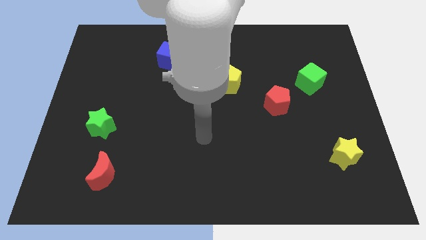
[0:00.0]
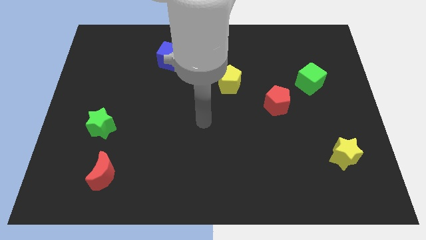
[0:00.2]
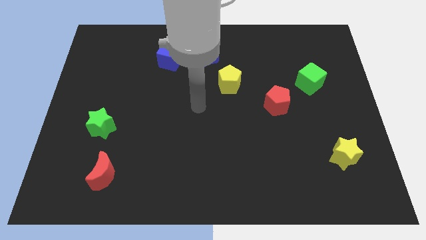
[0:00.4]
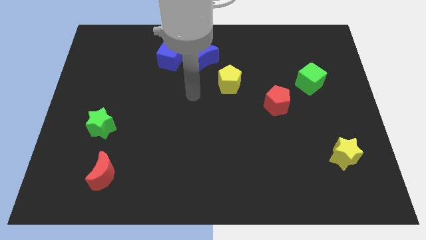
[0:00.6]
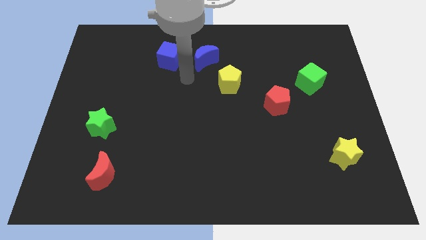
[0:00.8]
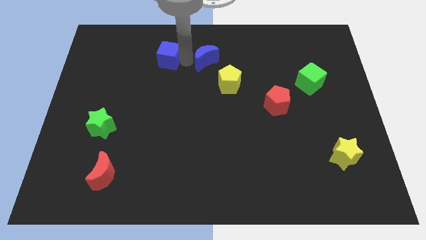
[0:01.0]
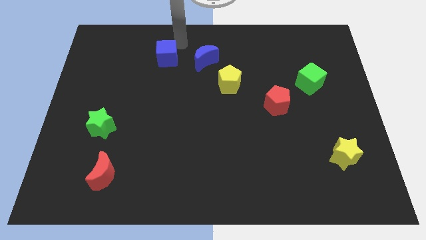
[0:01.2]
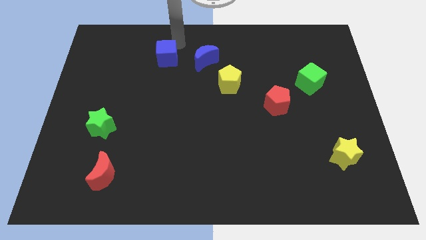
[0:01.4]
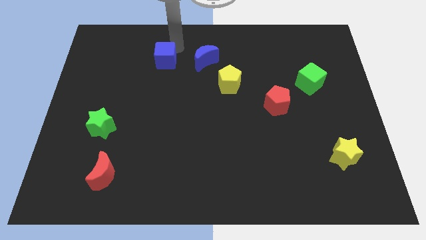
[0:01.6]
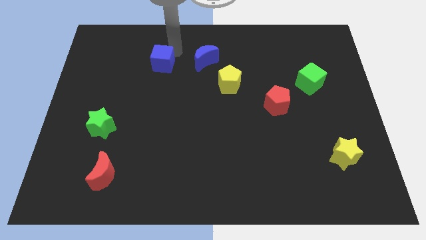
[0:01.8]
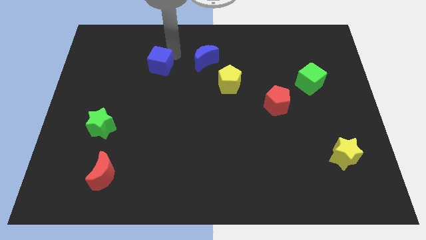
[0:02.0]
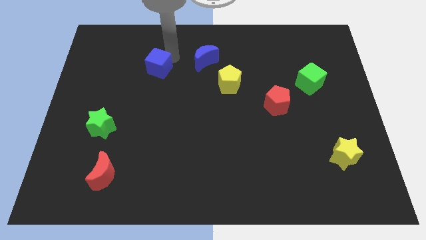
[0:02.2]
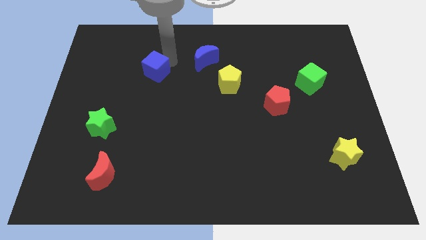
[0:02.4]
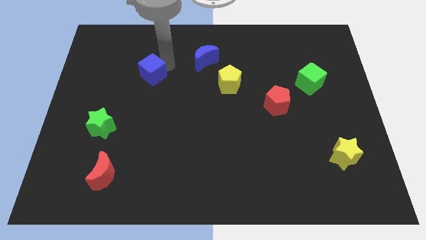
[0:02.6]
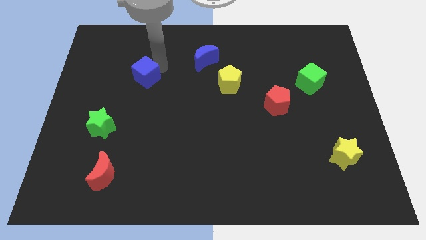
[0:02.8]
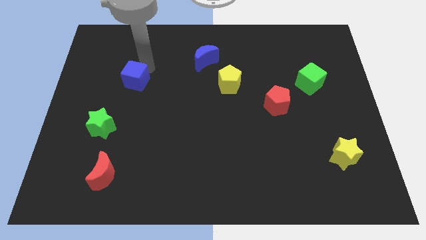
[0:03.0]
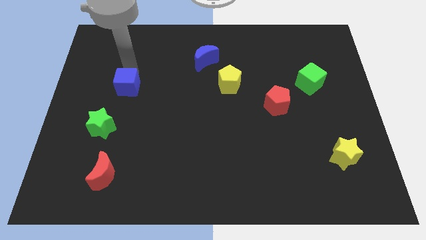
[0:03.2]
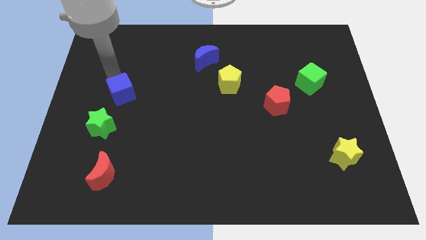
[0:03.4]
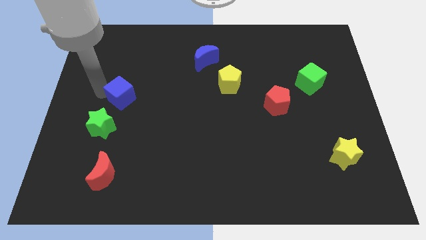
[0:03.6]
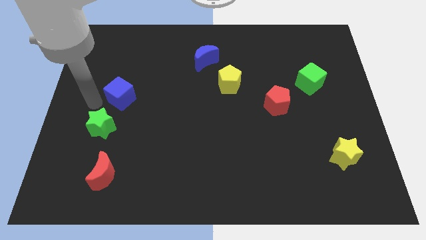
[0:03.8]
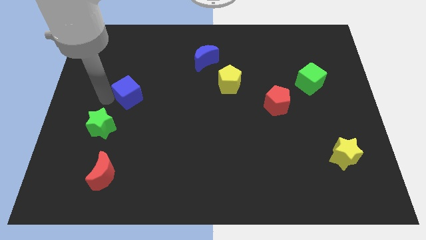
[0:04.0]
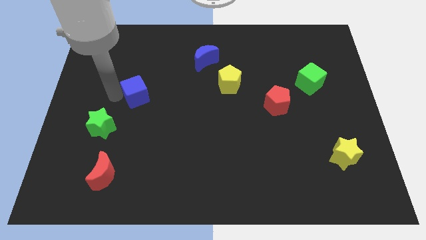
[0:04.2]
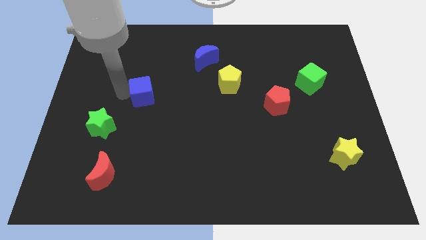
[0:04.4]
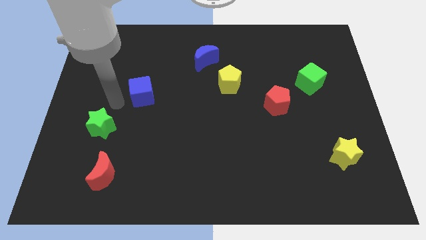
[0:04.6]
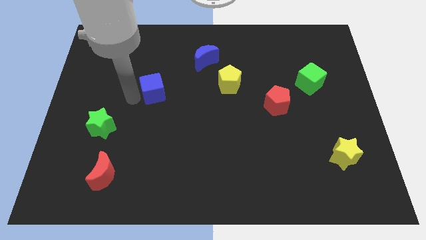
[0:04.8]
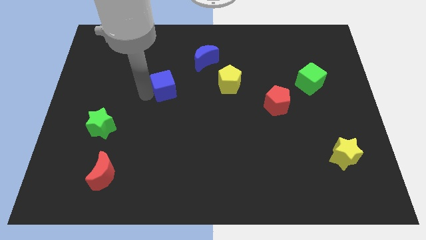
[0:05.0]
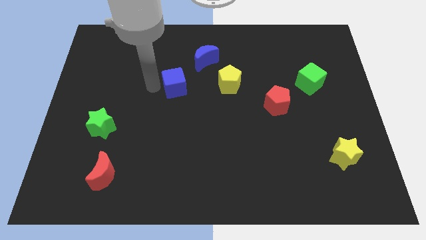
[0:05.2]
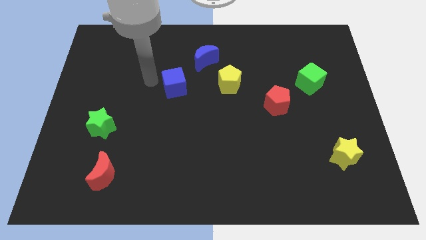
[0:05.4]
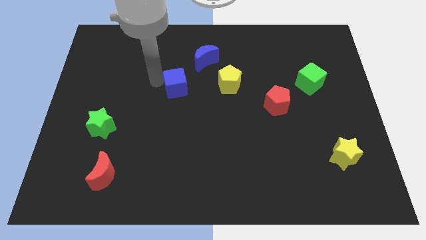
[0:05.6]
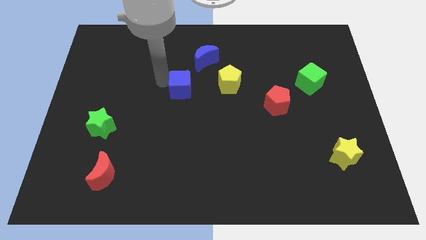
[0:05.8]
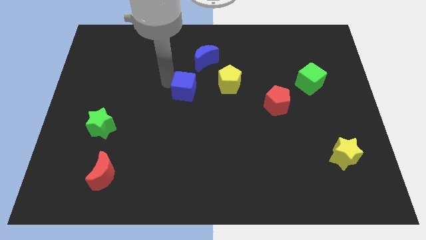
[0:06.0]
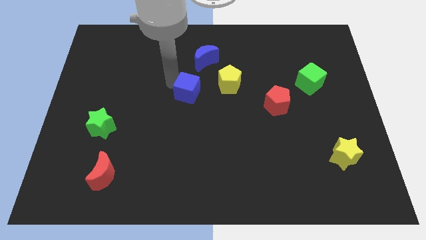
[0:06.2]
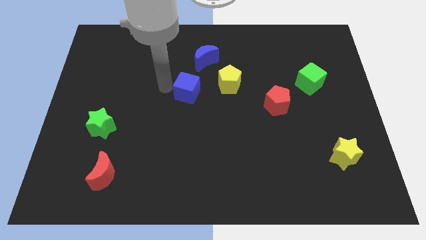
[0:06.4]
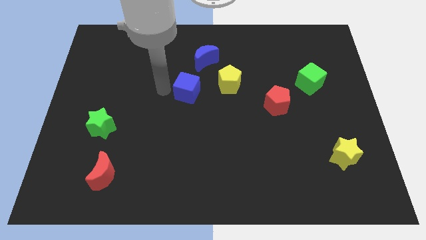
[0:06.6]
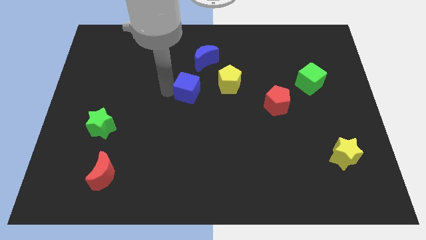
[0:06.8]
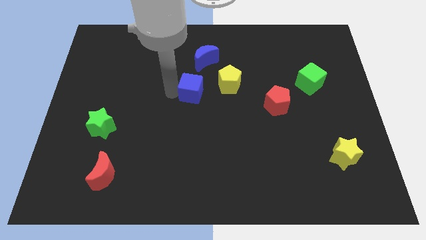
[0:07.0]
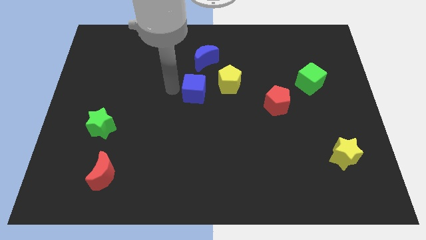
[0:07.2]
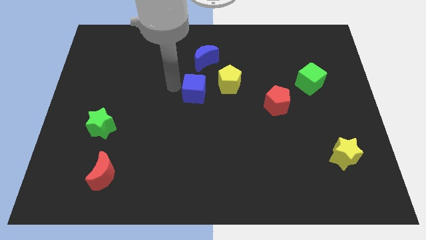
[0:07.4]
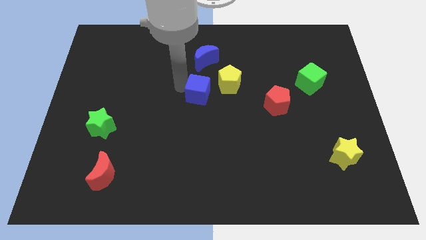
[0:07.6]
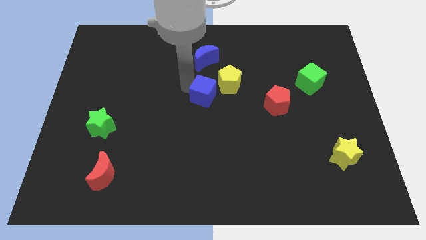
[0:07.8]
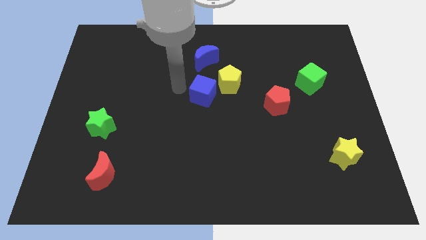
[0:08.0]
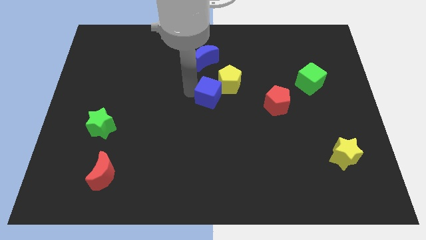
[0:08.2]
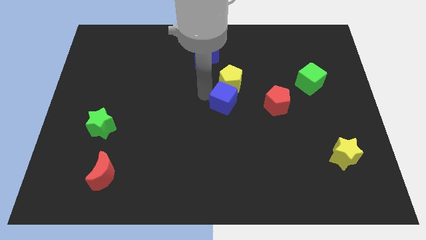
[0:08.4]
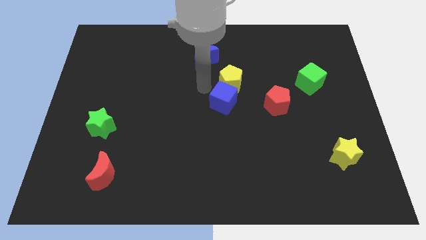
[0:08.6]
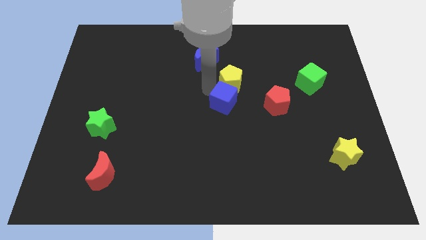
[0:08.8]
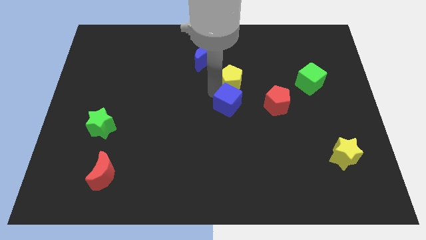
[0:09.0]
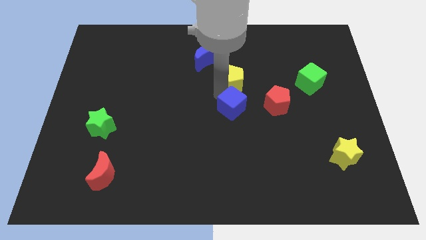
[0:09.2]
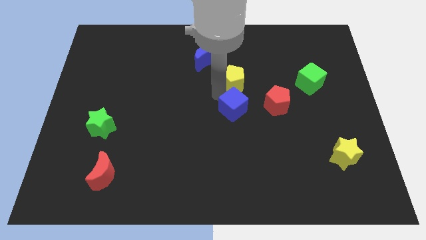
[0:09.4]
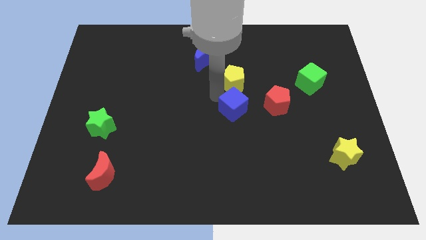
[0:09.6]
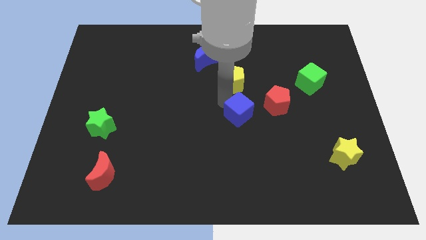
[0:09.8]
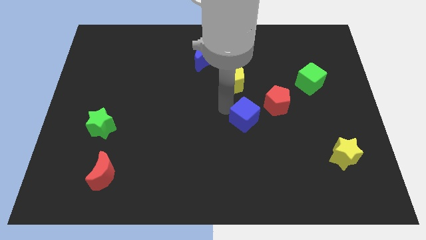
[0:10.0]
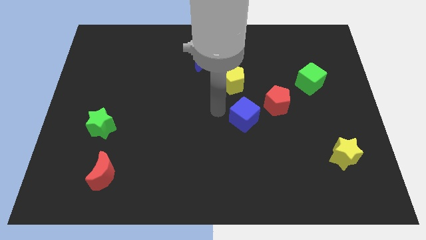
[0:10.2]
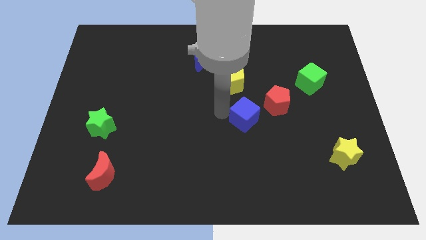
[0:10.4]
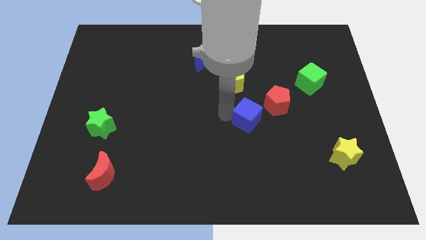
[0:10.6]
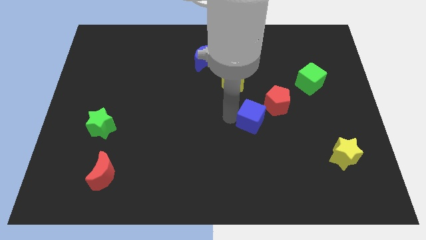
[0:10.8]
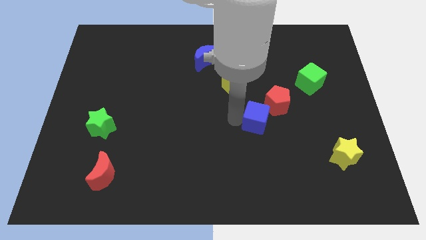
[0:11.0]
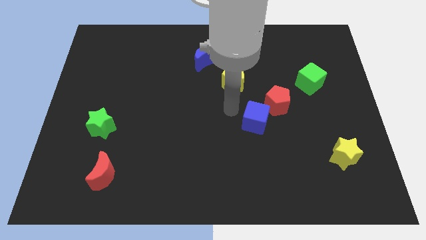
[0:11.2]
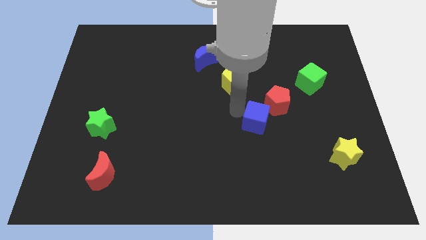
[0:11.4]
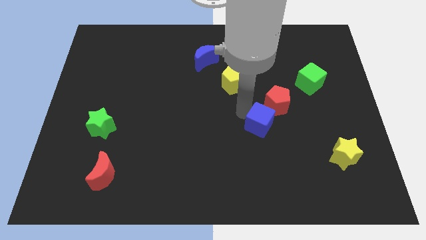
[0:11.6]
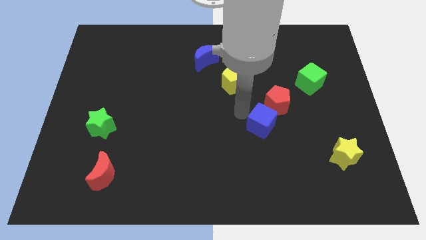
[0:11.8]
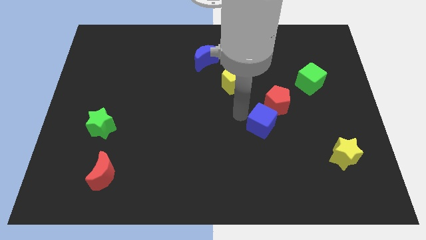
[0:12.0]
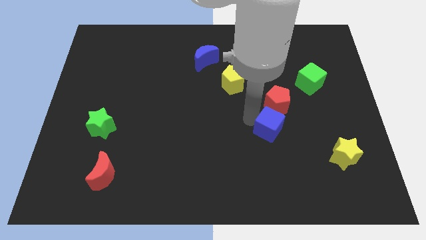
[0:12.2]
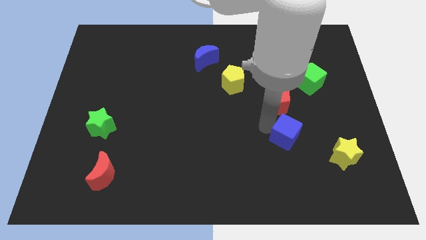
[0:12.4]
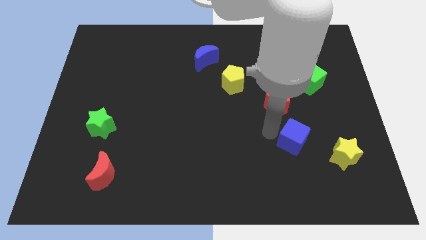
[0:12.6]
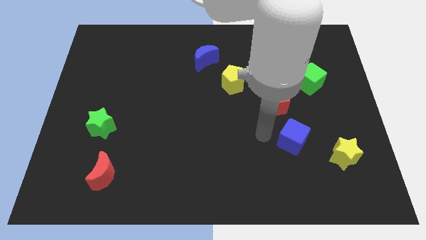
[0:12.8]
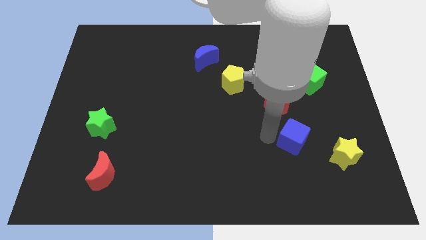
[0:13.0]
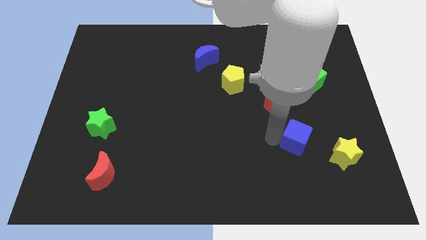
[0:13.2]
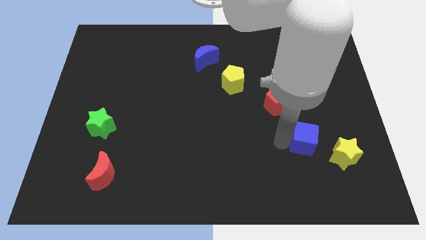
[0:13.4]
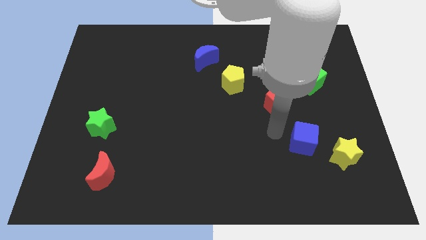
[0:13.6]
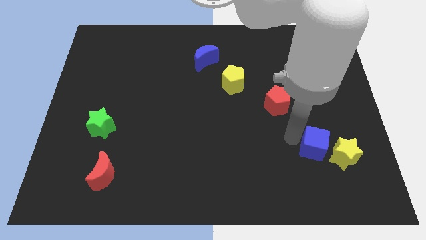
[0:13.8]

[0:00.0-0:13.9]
push the blue cube towards the yellow star
